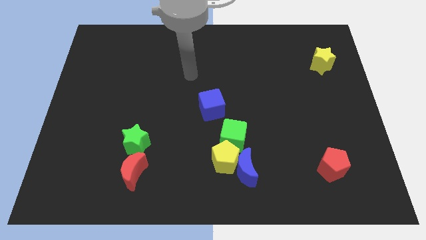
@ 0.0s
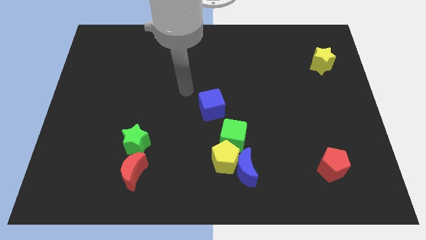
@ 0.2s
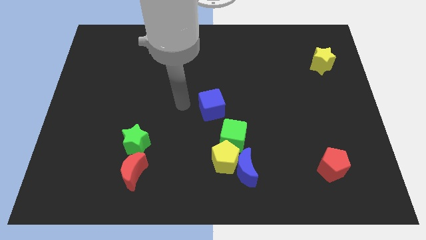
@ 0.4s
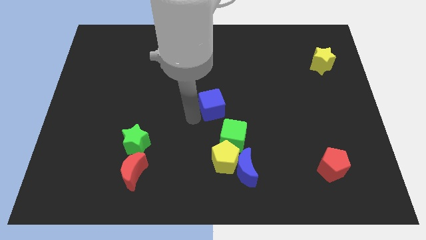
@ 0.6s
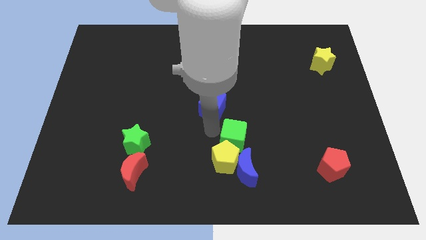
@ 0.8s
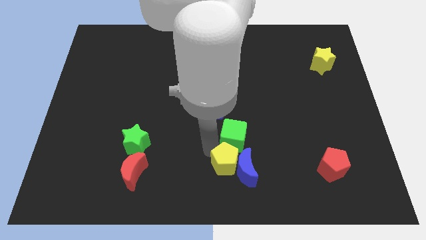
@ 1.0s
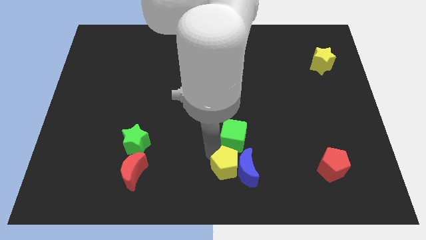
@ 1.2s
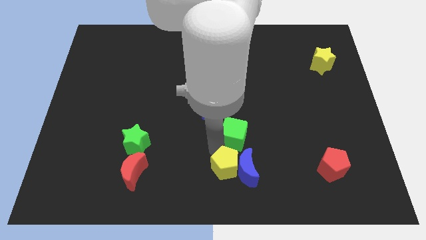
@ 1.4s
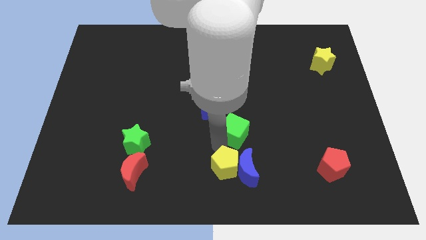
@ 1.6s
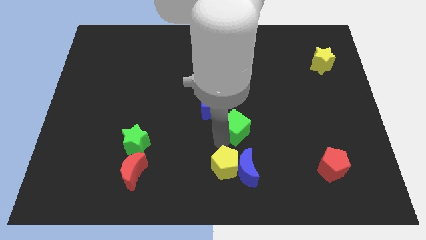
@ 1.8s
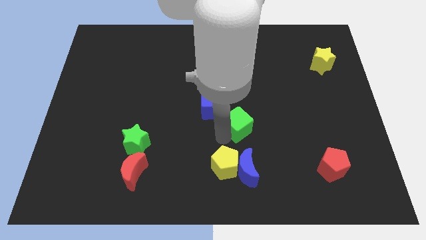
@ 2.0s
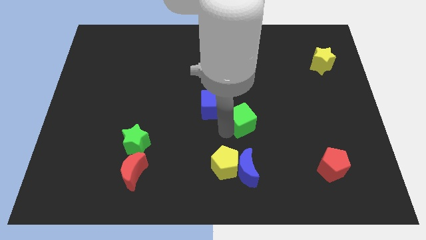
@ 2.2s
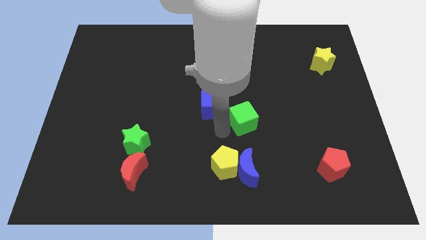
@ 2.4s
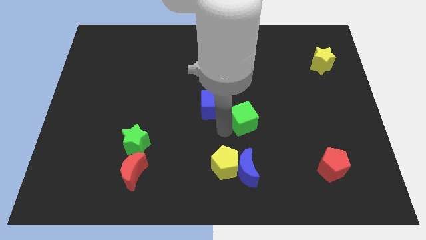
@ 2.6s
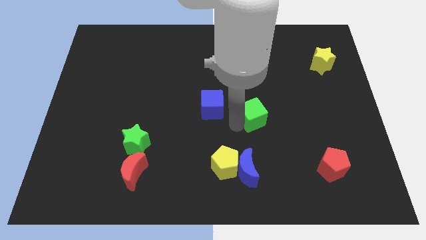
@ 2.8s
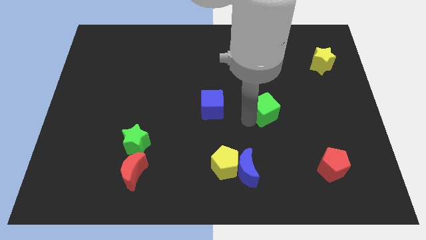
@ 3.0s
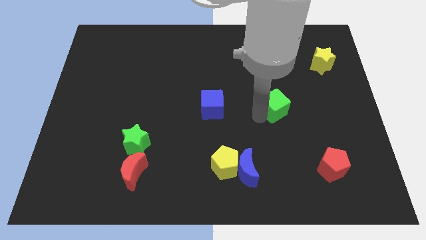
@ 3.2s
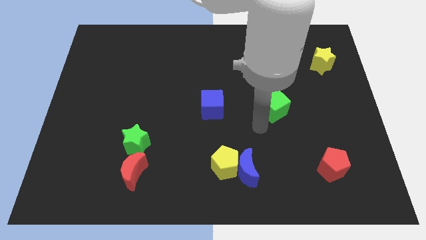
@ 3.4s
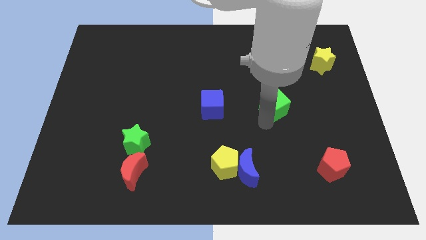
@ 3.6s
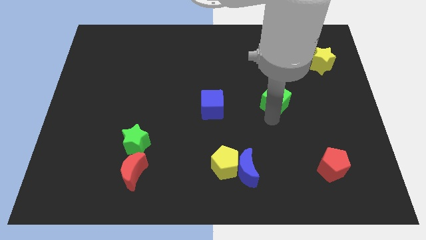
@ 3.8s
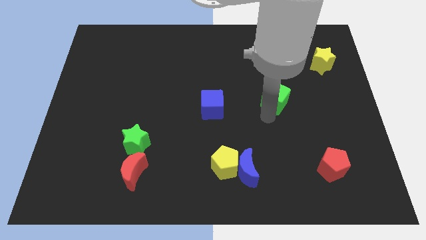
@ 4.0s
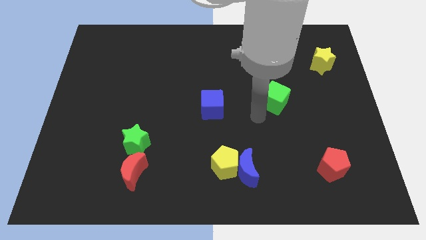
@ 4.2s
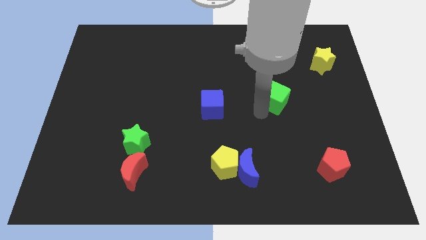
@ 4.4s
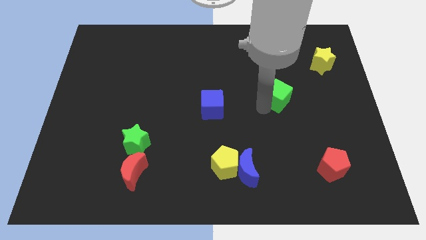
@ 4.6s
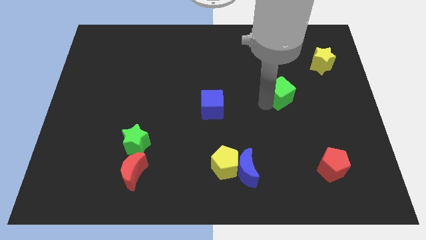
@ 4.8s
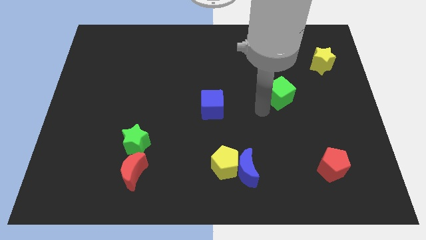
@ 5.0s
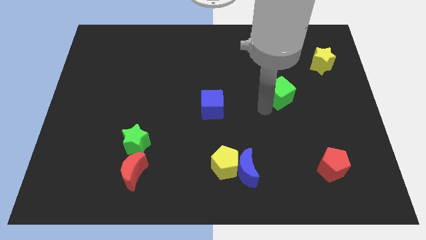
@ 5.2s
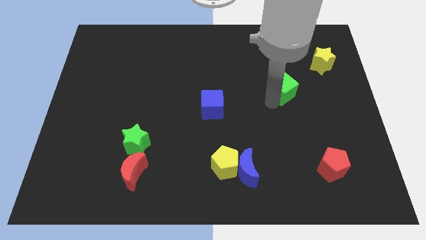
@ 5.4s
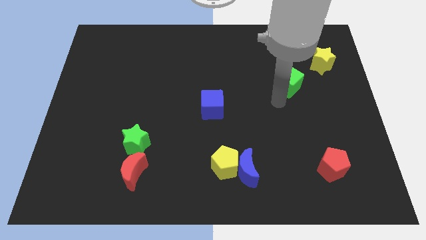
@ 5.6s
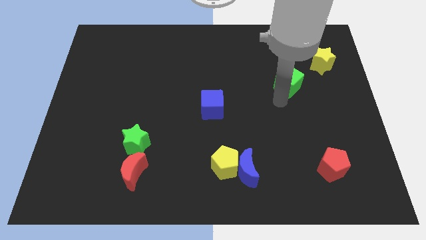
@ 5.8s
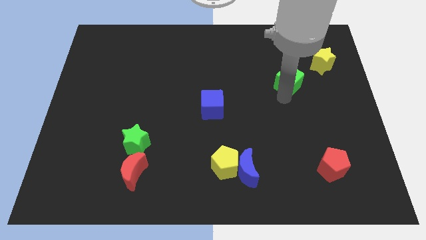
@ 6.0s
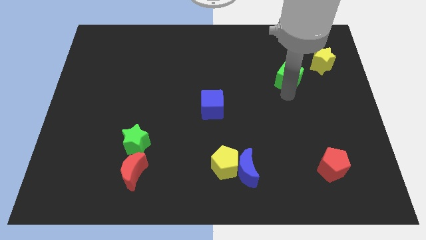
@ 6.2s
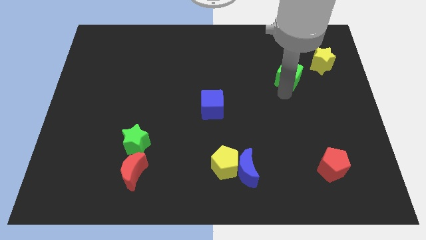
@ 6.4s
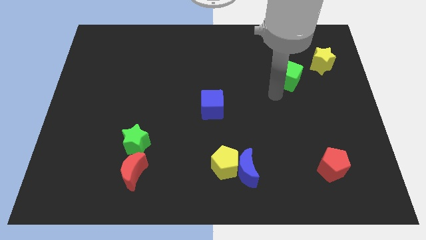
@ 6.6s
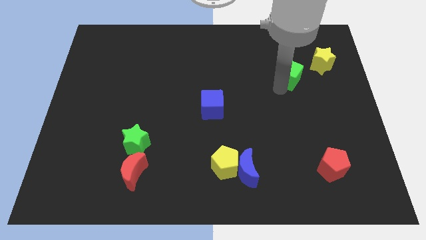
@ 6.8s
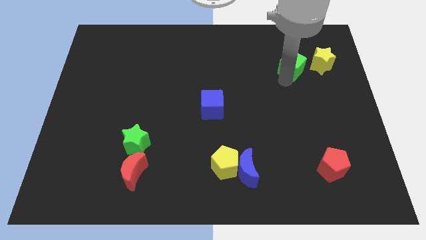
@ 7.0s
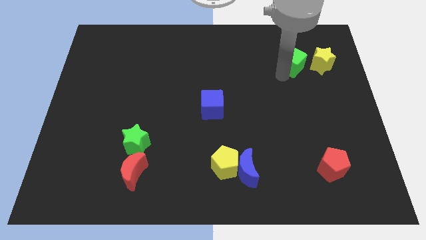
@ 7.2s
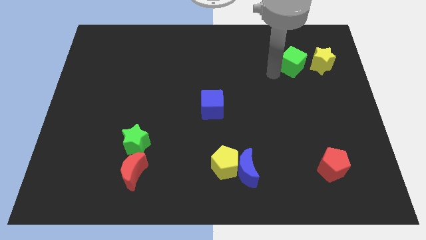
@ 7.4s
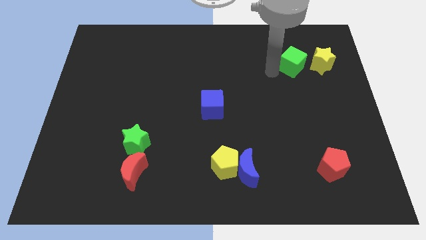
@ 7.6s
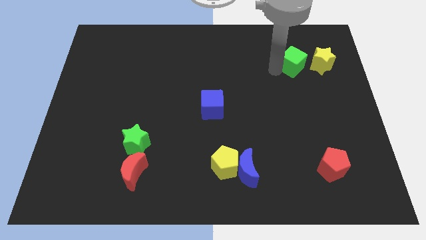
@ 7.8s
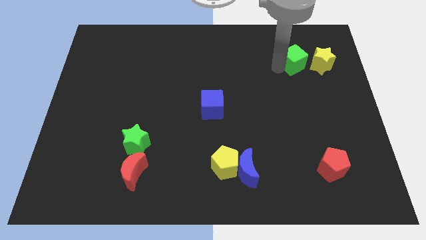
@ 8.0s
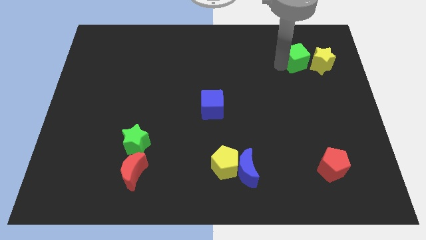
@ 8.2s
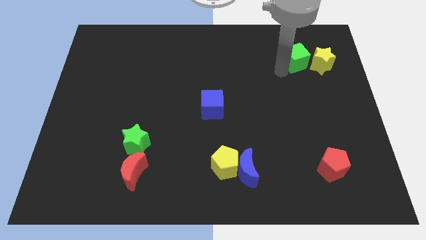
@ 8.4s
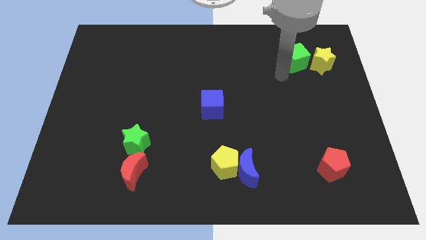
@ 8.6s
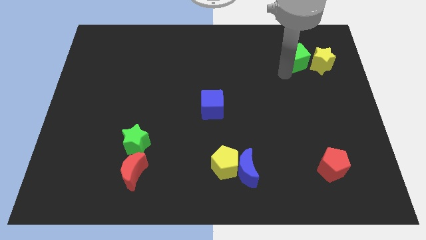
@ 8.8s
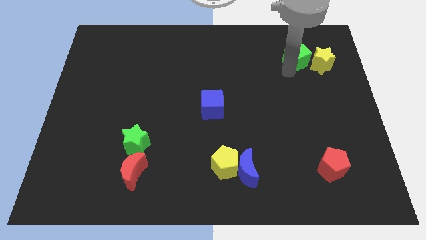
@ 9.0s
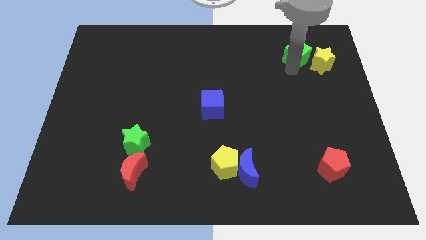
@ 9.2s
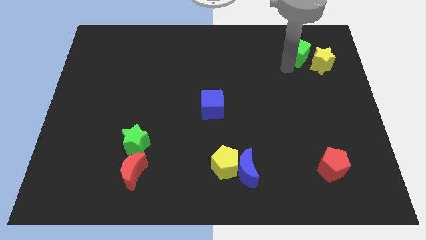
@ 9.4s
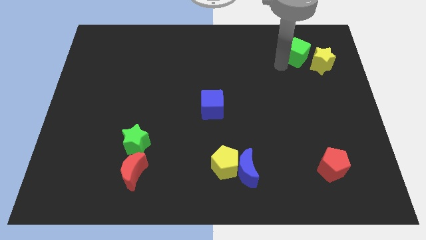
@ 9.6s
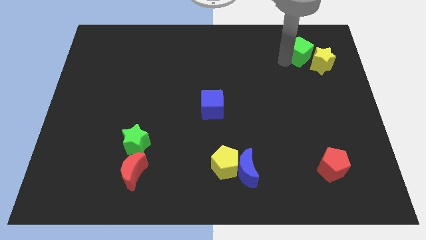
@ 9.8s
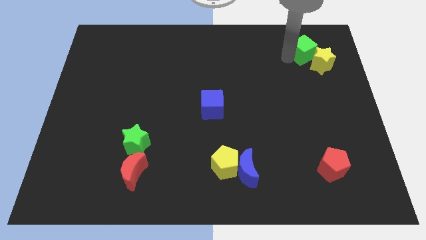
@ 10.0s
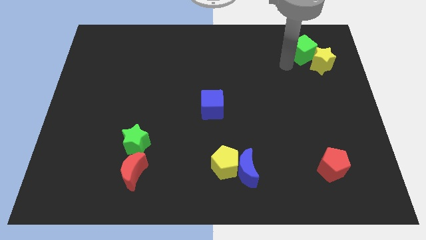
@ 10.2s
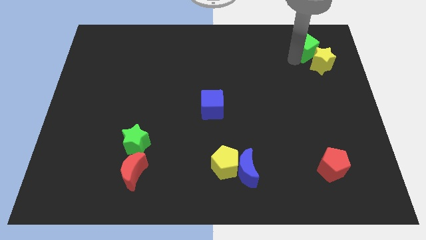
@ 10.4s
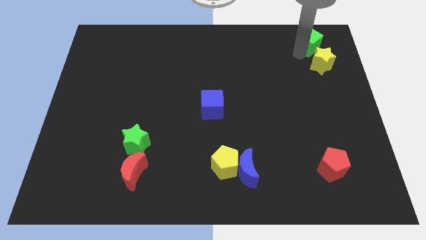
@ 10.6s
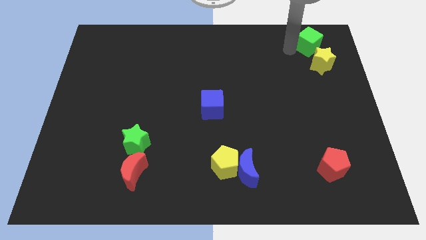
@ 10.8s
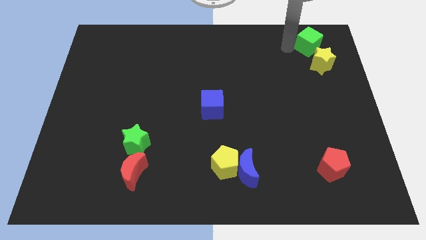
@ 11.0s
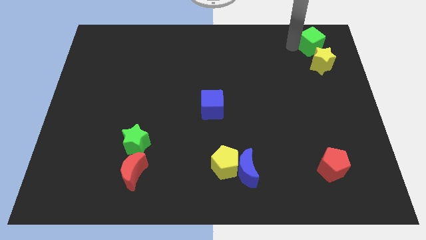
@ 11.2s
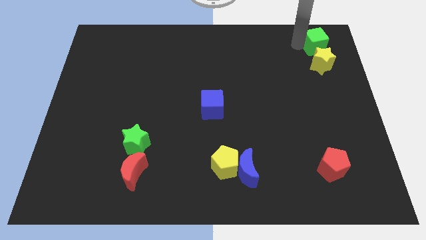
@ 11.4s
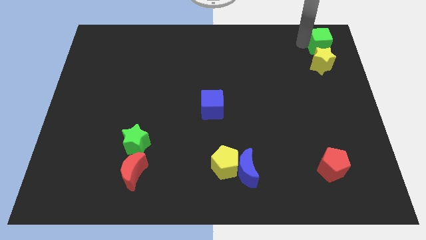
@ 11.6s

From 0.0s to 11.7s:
slide the green cube to the upper right corner
